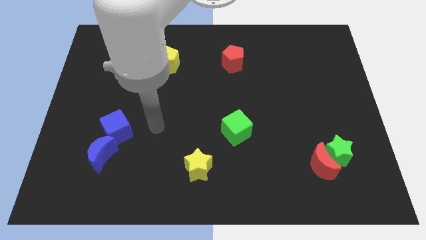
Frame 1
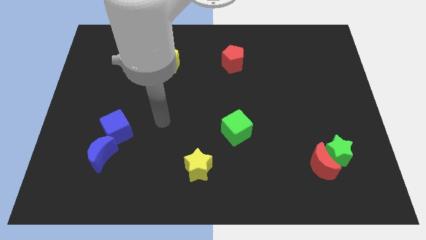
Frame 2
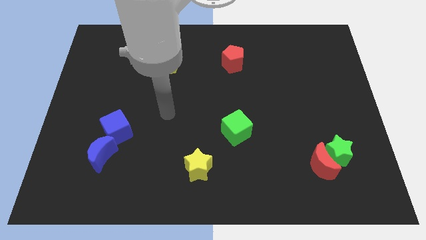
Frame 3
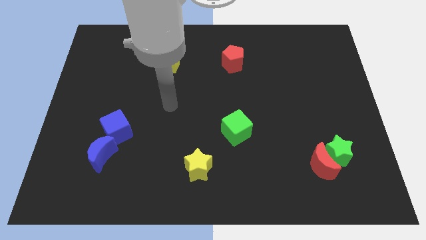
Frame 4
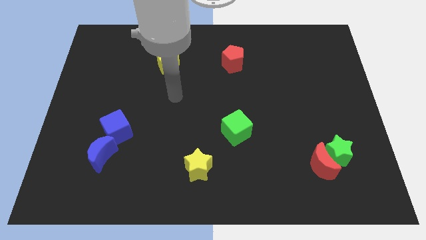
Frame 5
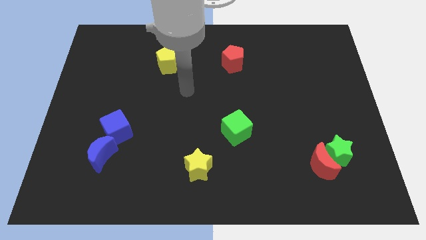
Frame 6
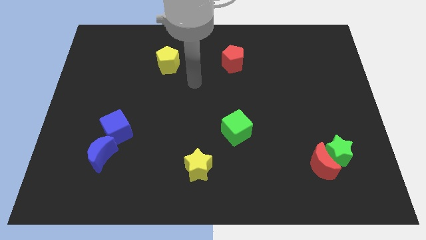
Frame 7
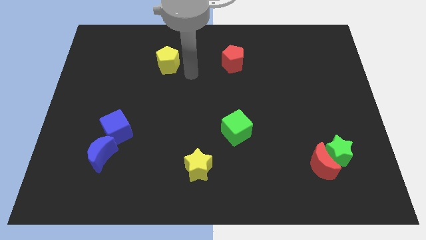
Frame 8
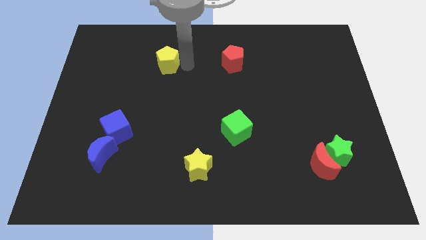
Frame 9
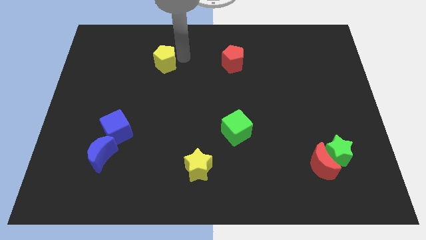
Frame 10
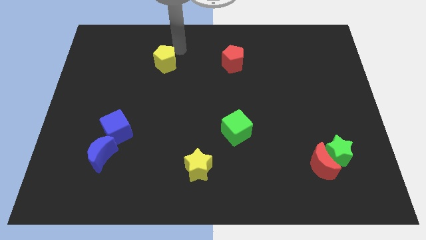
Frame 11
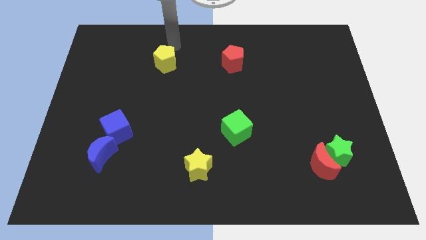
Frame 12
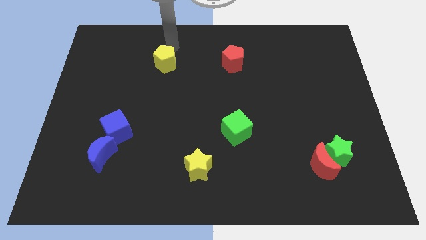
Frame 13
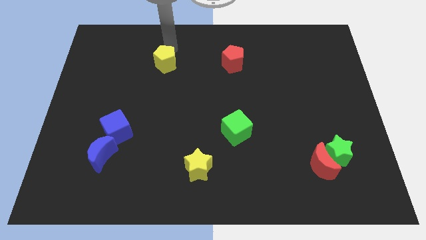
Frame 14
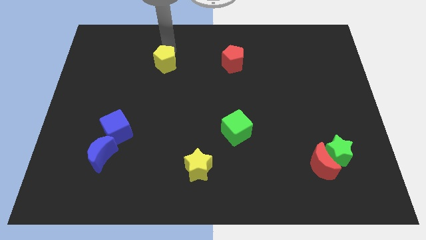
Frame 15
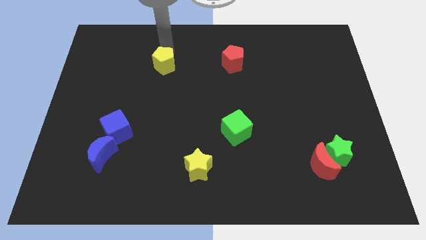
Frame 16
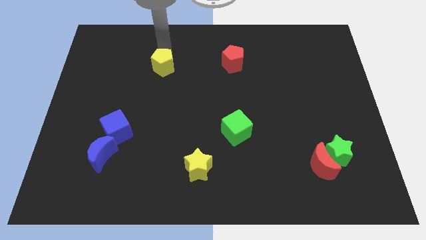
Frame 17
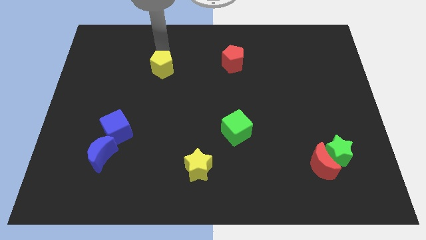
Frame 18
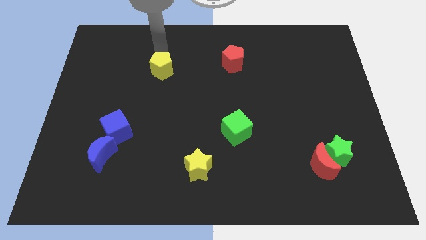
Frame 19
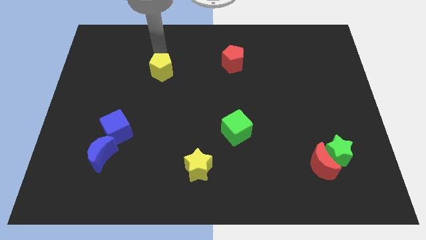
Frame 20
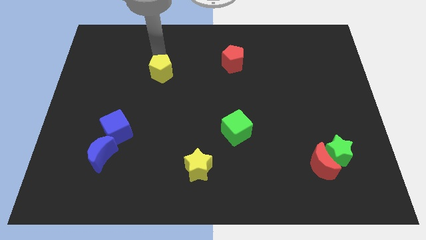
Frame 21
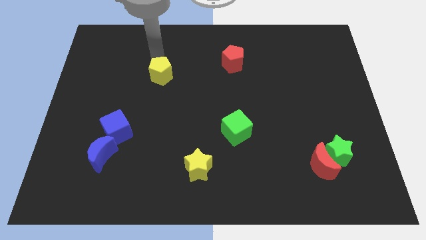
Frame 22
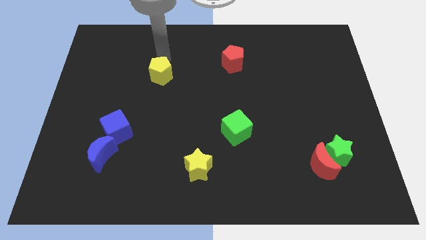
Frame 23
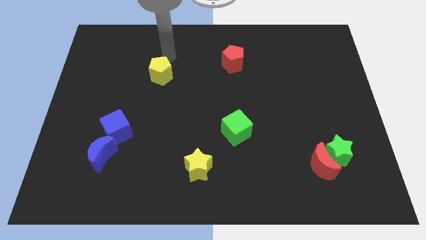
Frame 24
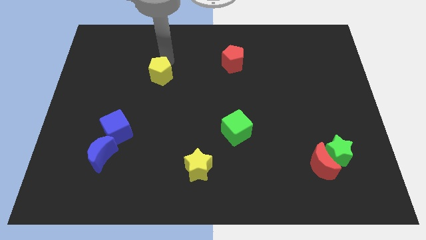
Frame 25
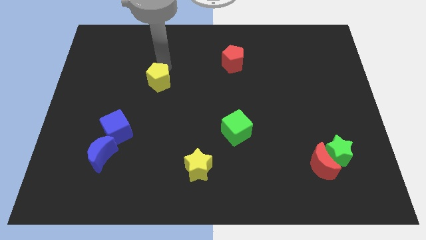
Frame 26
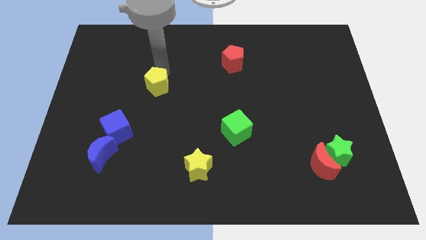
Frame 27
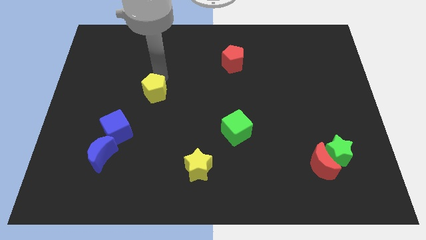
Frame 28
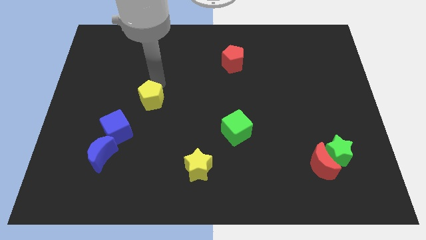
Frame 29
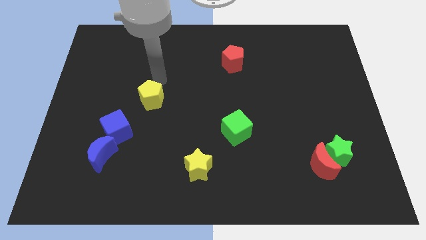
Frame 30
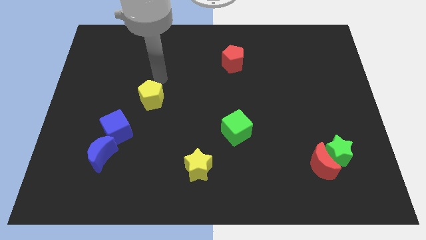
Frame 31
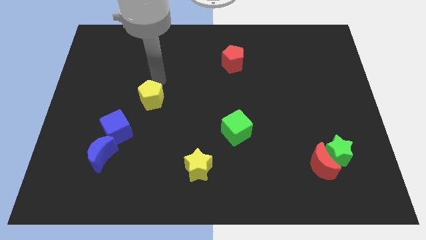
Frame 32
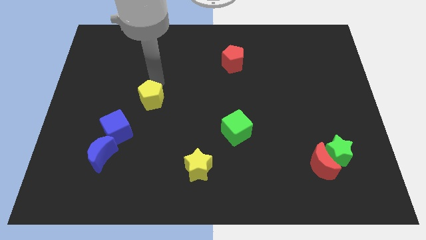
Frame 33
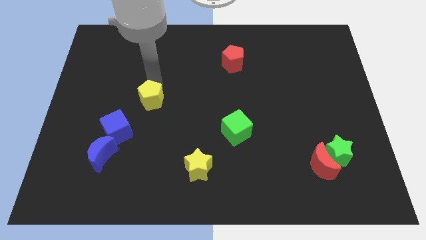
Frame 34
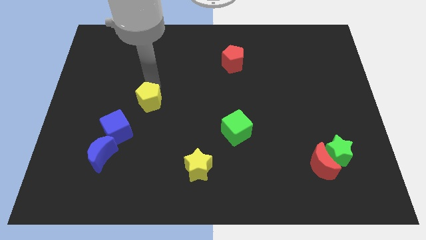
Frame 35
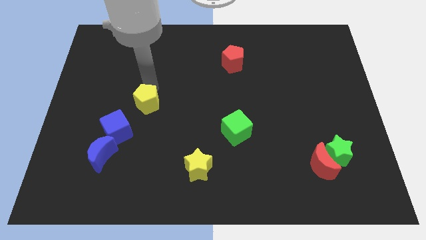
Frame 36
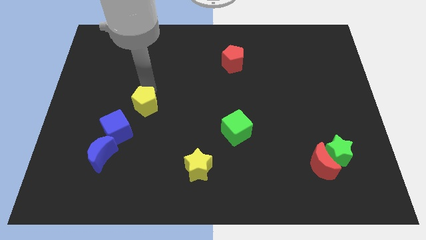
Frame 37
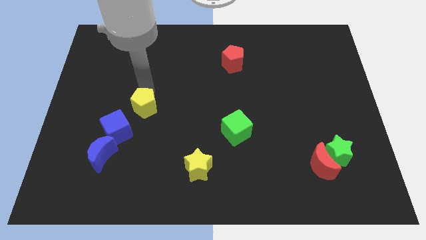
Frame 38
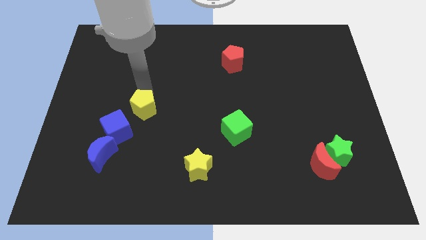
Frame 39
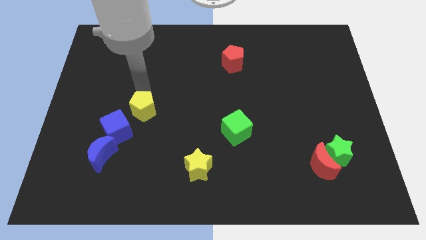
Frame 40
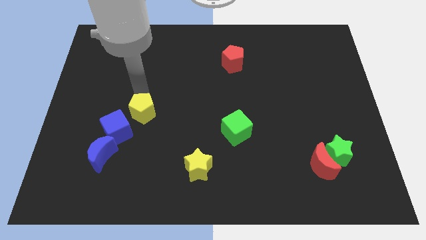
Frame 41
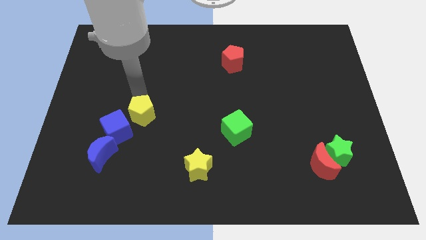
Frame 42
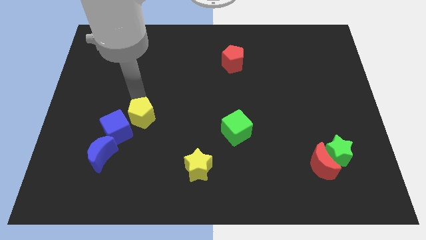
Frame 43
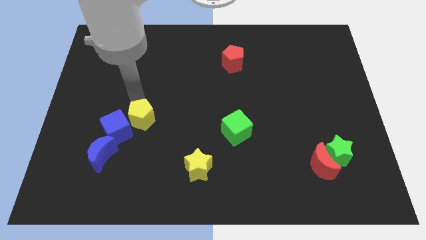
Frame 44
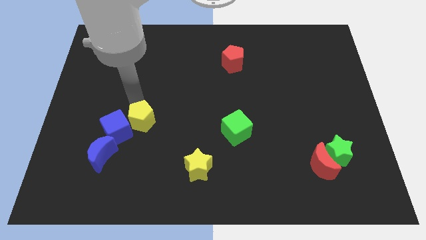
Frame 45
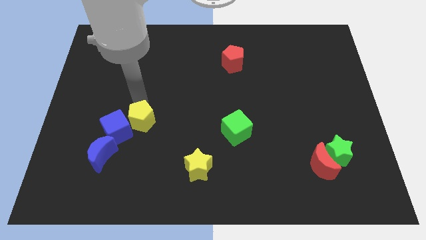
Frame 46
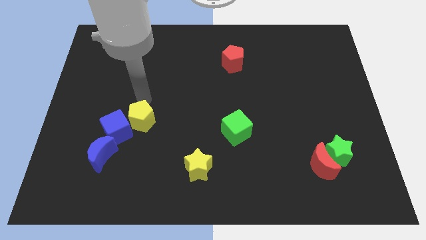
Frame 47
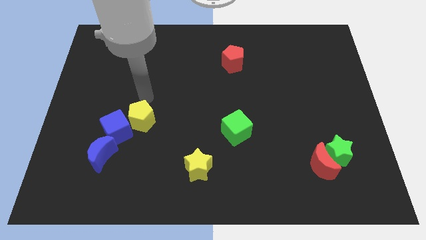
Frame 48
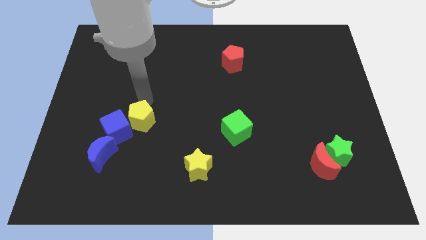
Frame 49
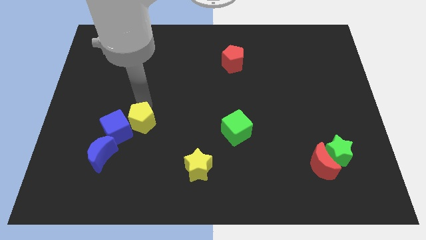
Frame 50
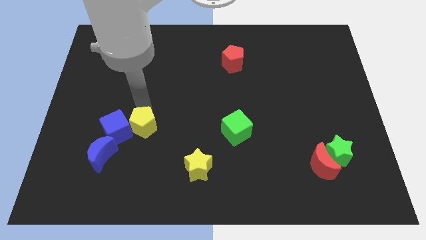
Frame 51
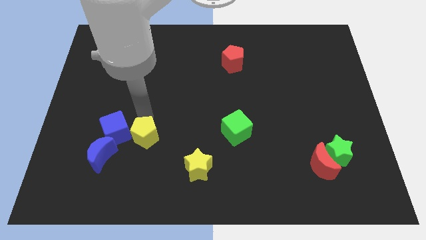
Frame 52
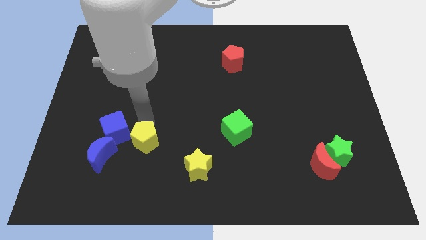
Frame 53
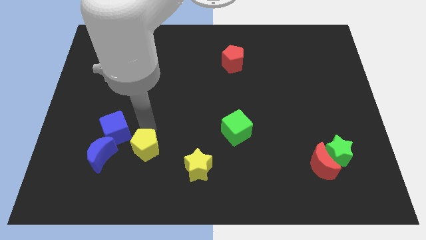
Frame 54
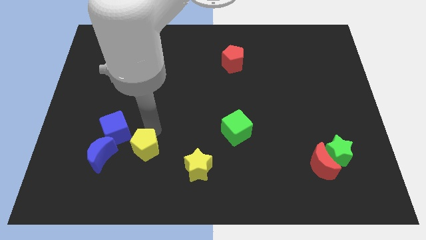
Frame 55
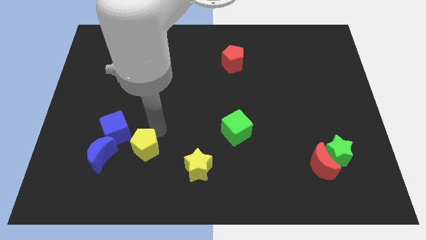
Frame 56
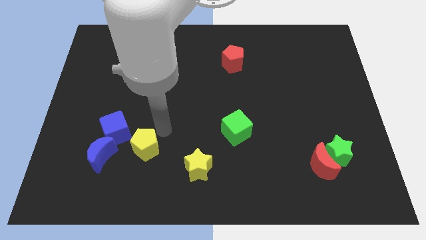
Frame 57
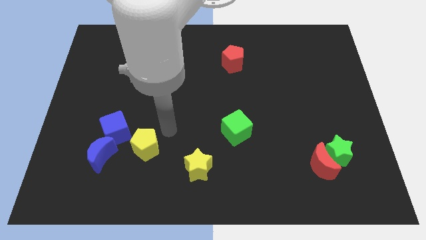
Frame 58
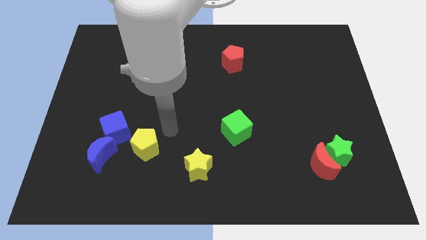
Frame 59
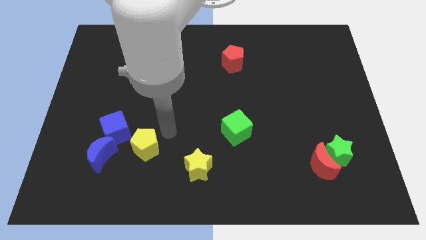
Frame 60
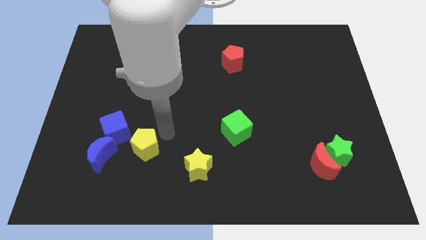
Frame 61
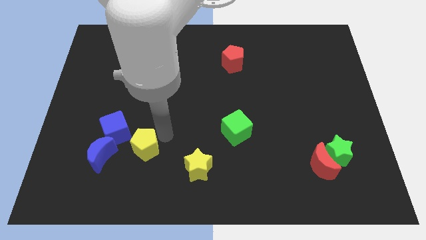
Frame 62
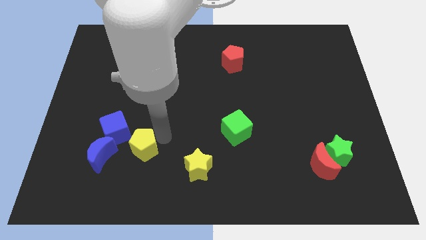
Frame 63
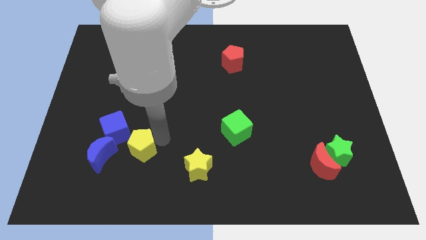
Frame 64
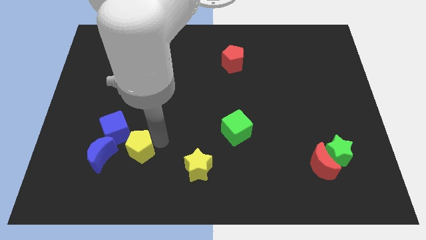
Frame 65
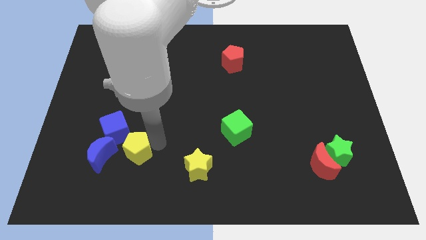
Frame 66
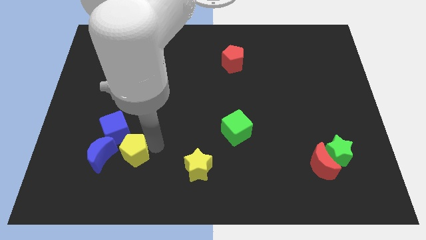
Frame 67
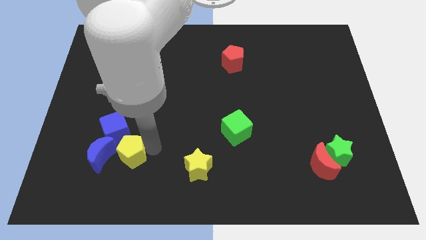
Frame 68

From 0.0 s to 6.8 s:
put the yellow pentagon to the bottom right side of the blue moon
